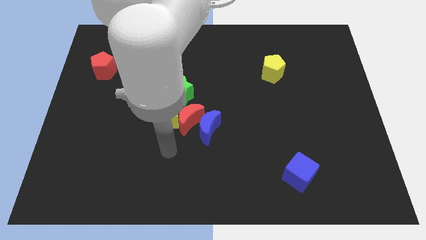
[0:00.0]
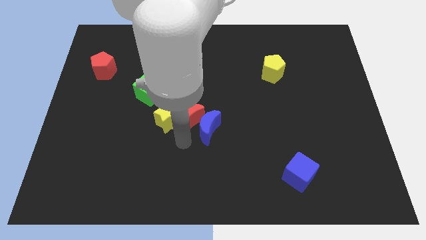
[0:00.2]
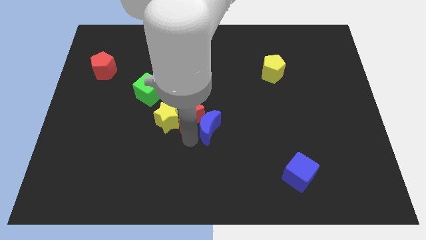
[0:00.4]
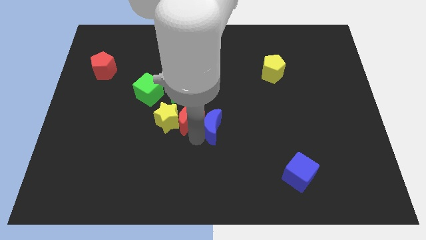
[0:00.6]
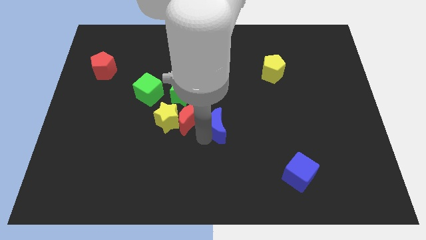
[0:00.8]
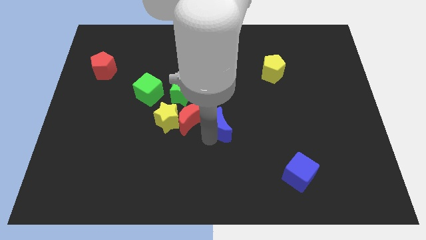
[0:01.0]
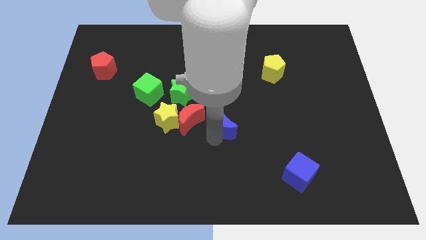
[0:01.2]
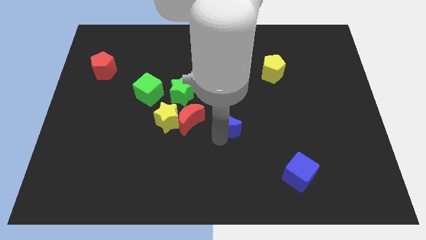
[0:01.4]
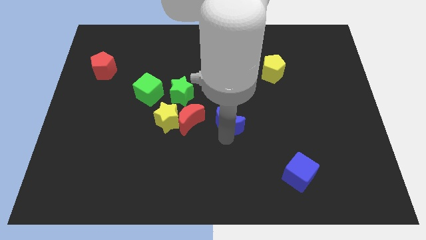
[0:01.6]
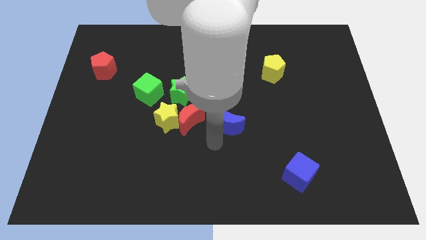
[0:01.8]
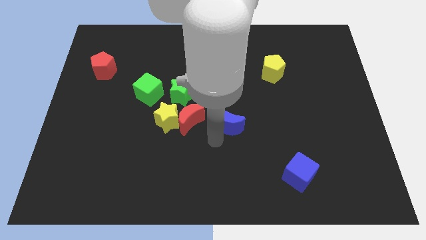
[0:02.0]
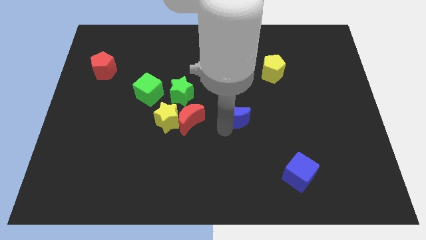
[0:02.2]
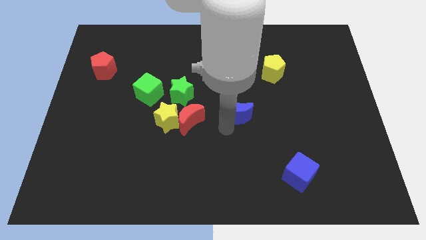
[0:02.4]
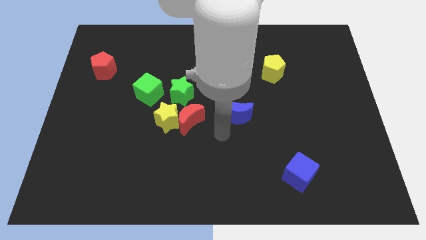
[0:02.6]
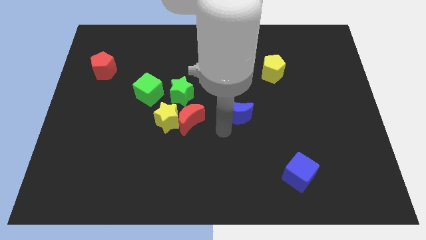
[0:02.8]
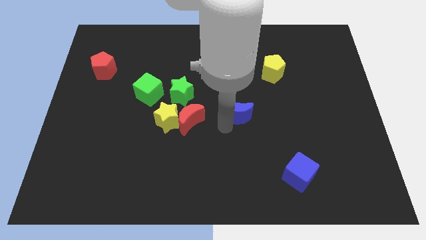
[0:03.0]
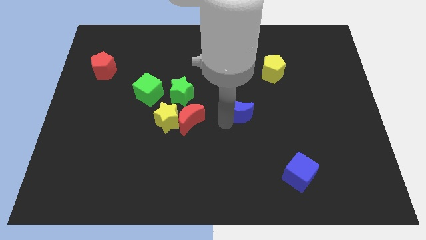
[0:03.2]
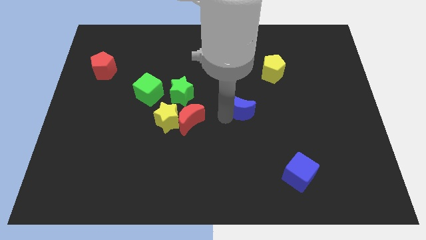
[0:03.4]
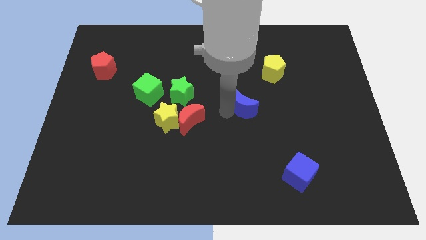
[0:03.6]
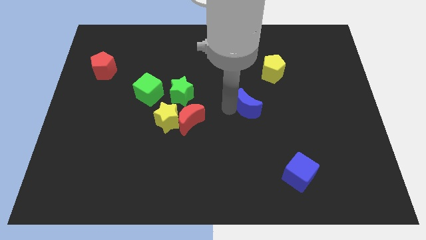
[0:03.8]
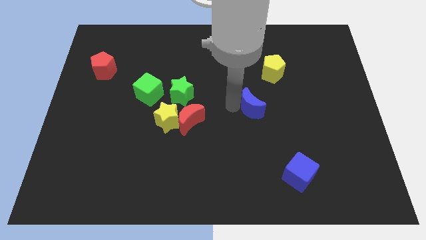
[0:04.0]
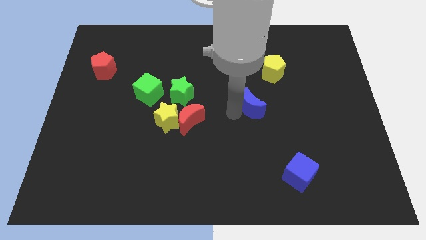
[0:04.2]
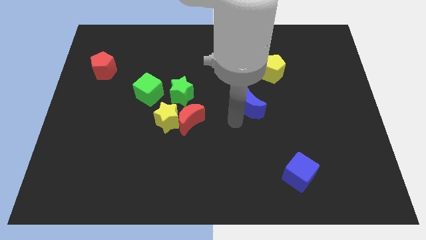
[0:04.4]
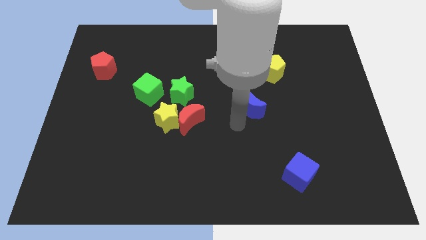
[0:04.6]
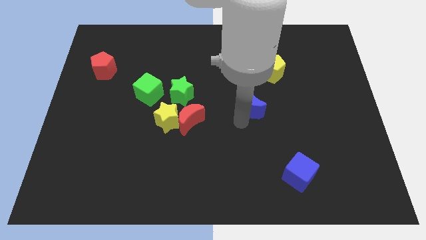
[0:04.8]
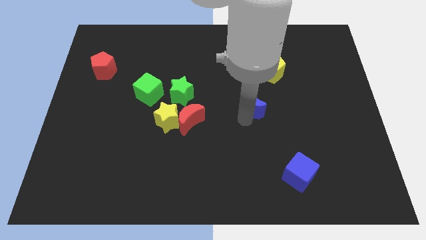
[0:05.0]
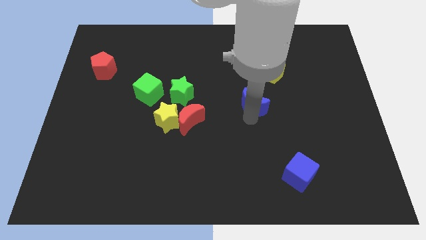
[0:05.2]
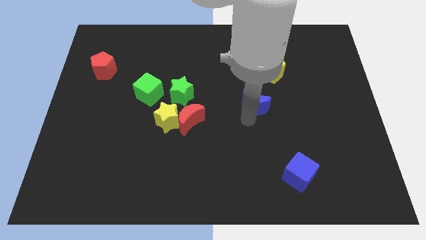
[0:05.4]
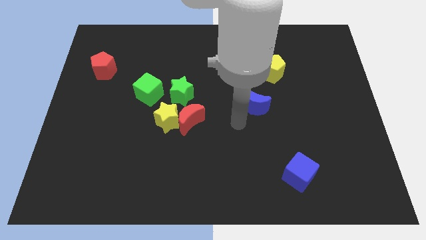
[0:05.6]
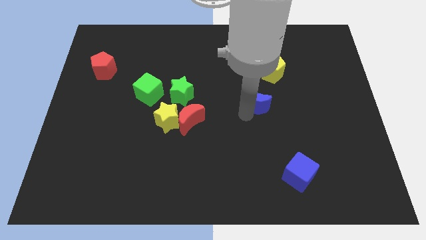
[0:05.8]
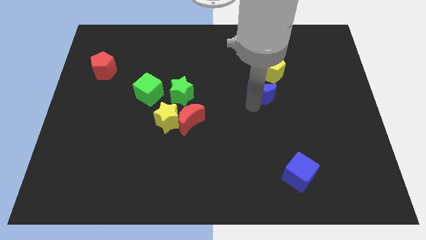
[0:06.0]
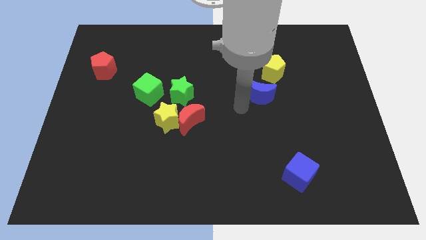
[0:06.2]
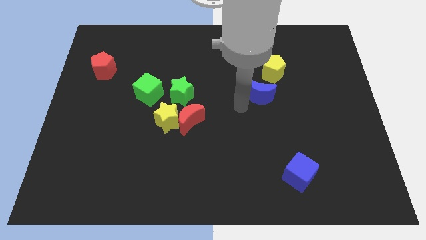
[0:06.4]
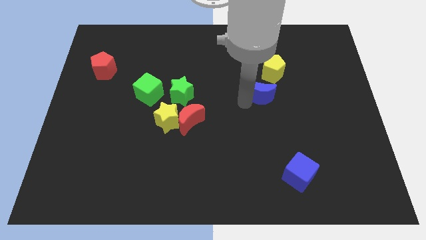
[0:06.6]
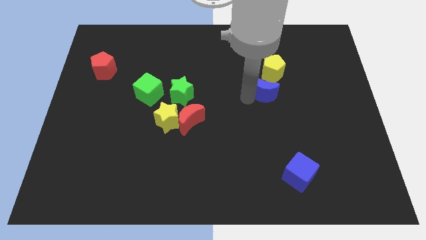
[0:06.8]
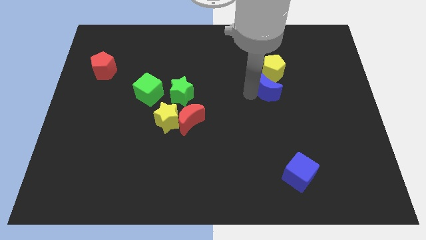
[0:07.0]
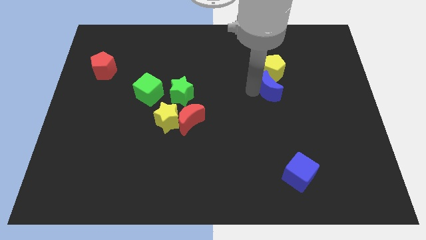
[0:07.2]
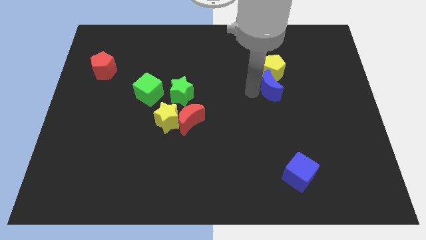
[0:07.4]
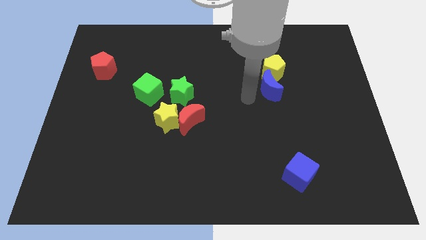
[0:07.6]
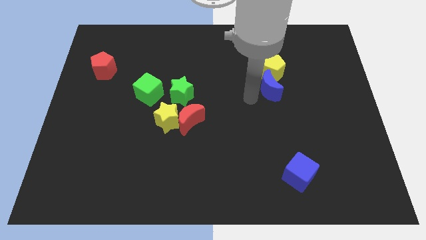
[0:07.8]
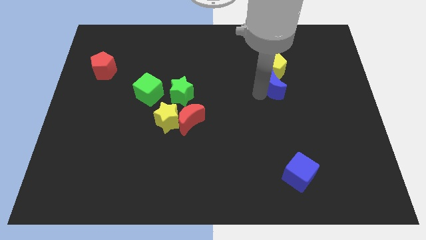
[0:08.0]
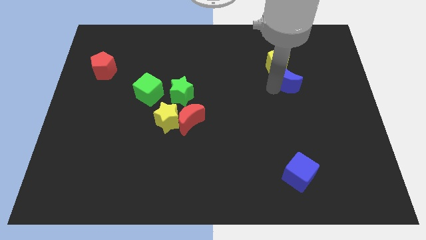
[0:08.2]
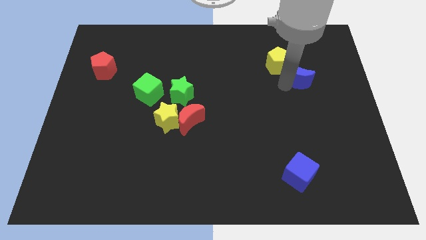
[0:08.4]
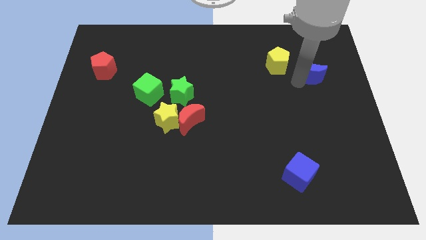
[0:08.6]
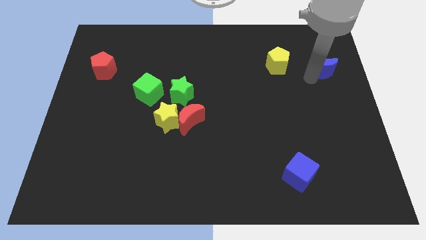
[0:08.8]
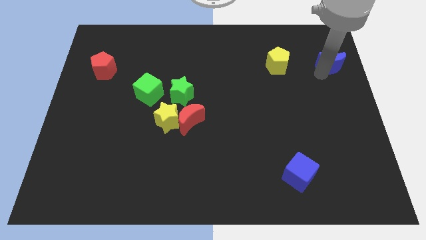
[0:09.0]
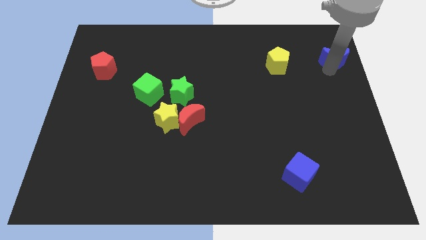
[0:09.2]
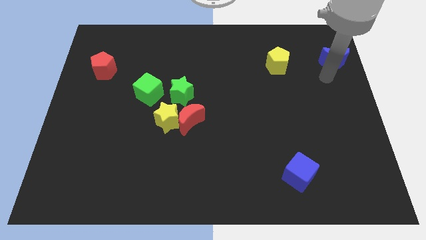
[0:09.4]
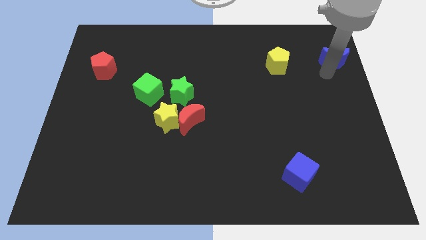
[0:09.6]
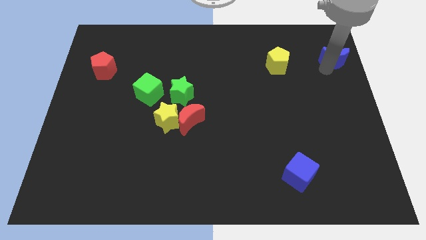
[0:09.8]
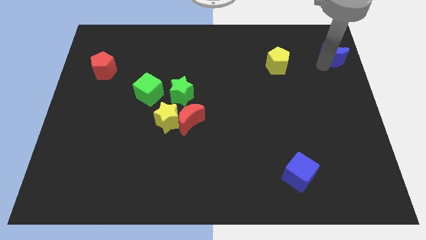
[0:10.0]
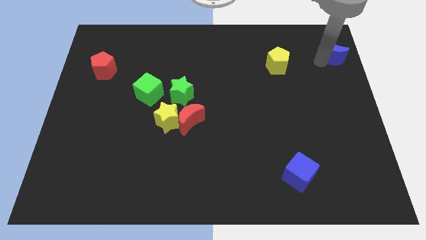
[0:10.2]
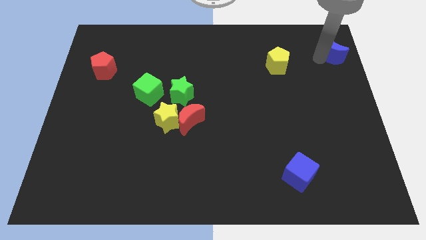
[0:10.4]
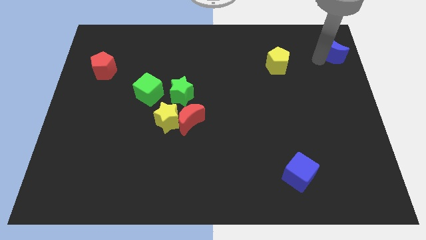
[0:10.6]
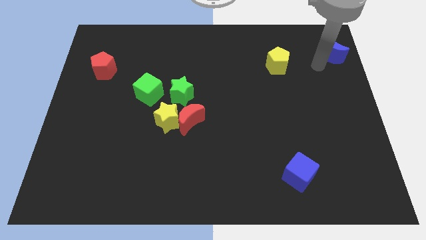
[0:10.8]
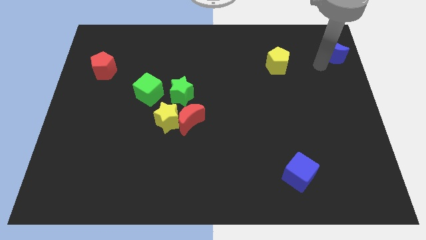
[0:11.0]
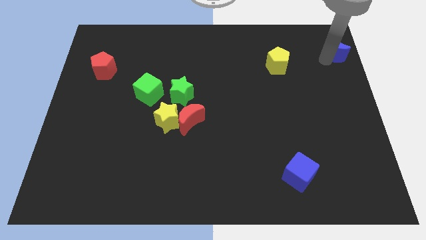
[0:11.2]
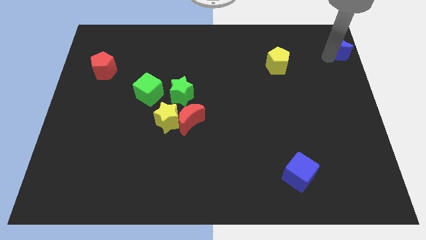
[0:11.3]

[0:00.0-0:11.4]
push the blue moon to the top right

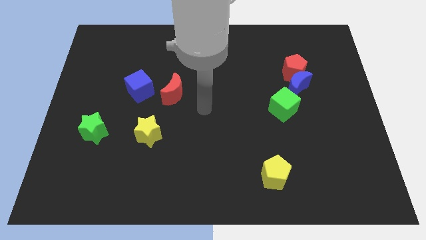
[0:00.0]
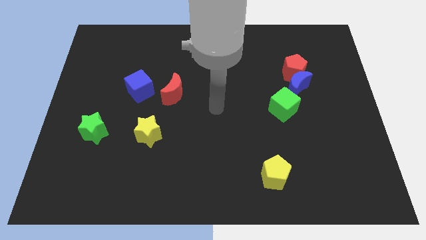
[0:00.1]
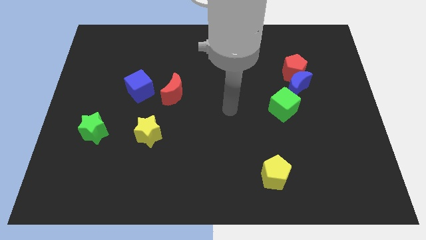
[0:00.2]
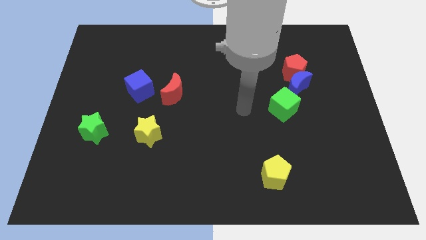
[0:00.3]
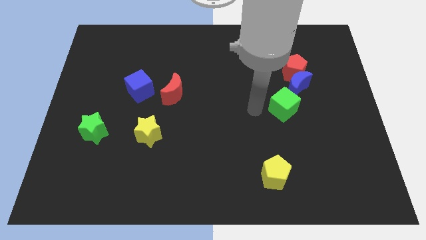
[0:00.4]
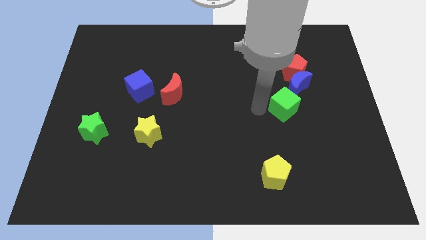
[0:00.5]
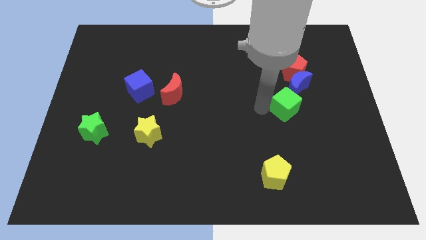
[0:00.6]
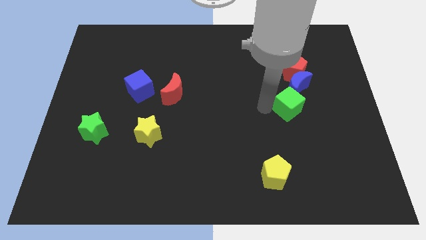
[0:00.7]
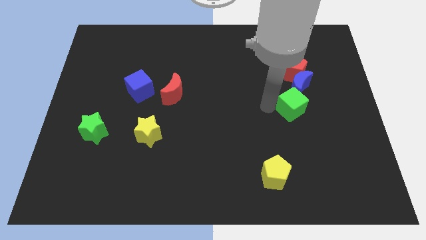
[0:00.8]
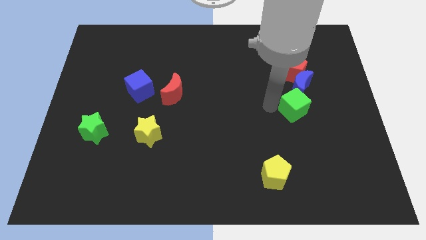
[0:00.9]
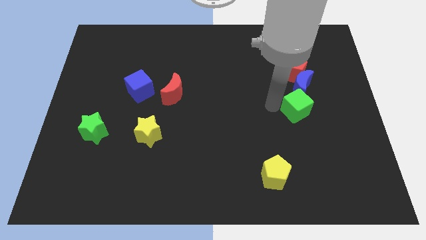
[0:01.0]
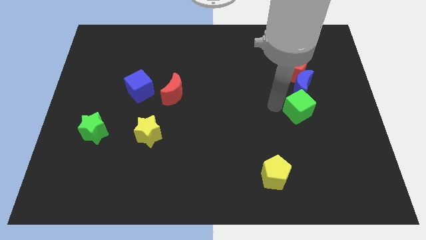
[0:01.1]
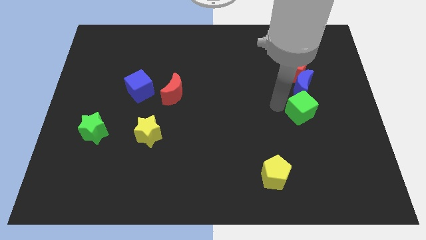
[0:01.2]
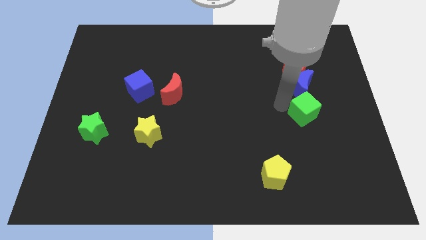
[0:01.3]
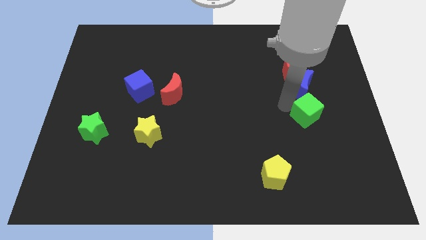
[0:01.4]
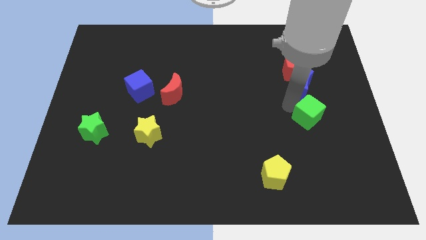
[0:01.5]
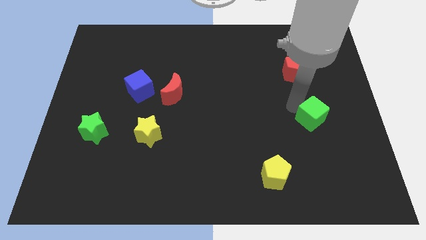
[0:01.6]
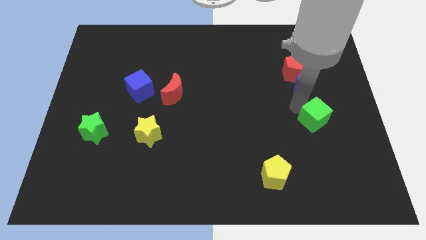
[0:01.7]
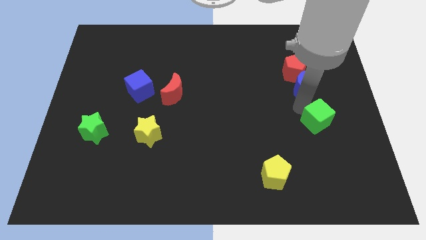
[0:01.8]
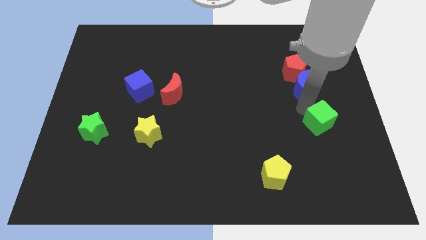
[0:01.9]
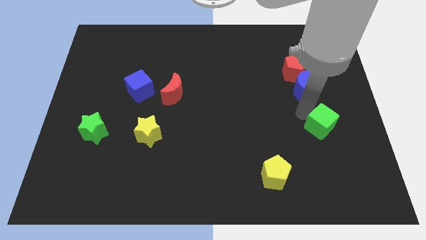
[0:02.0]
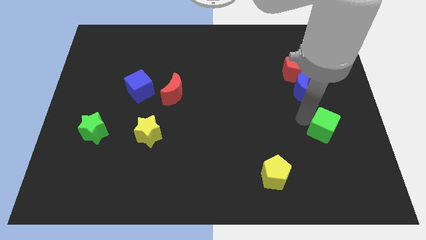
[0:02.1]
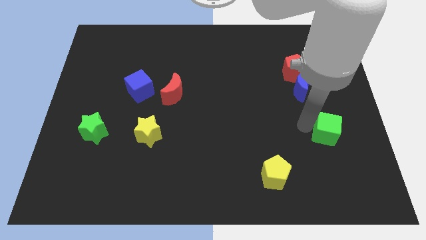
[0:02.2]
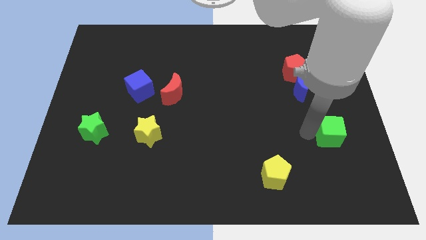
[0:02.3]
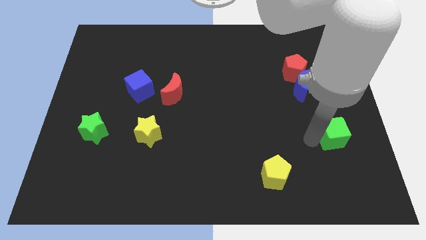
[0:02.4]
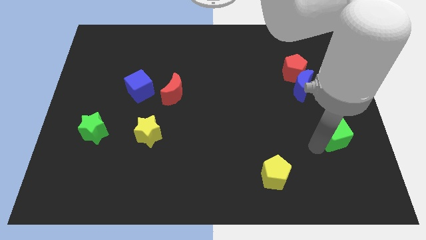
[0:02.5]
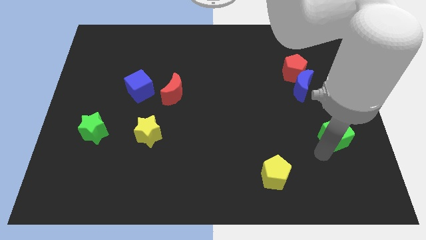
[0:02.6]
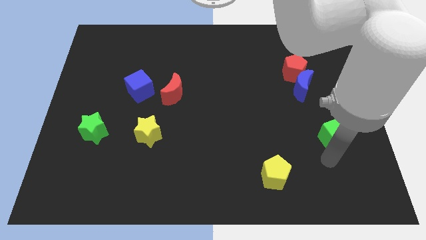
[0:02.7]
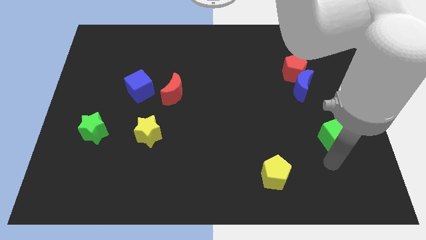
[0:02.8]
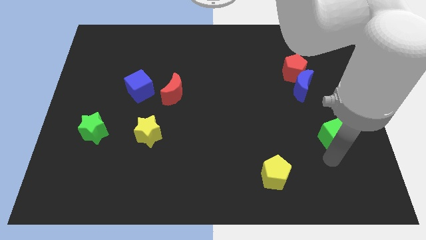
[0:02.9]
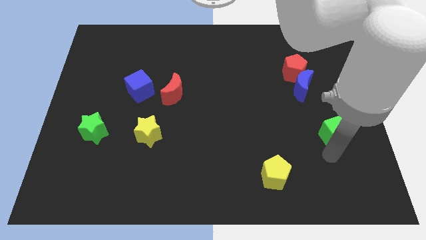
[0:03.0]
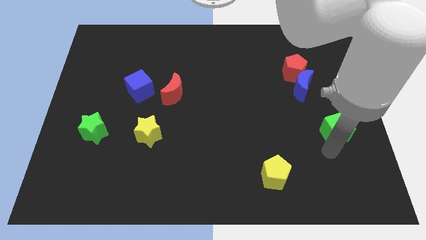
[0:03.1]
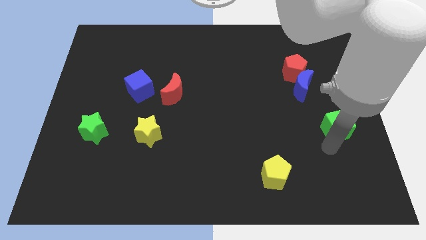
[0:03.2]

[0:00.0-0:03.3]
put the green cube to the right side
